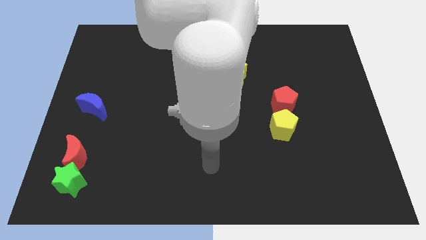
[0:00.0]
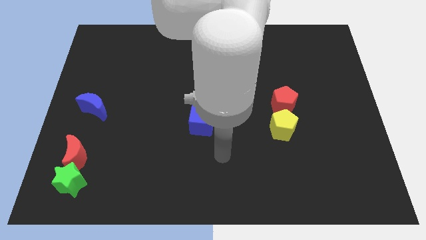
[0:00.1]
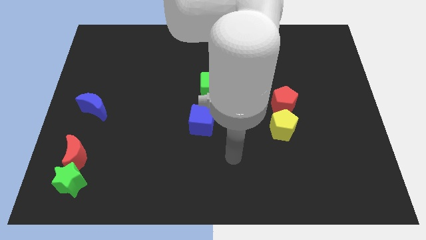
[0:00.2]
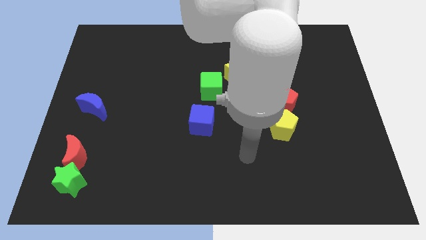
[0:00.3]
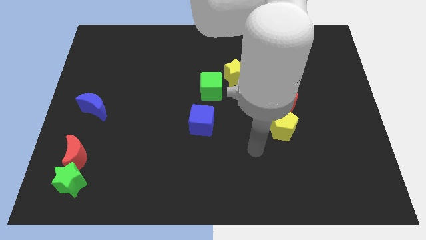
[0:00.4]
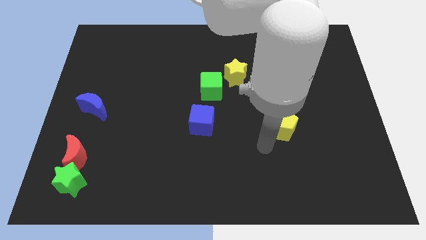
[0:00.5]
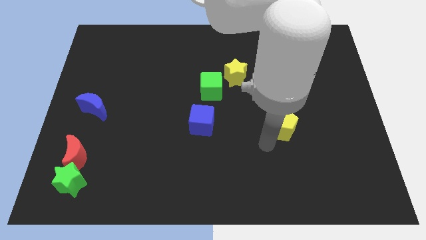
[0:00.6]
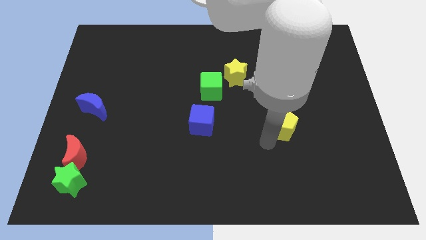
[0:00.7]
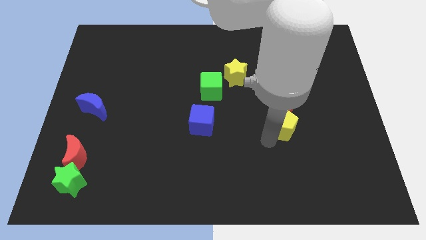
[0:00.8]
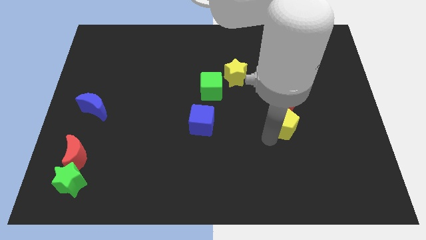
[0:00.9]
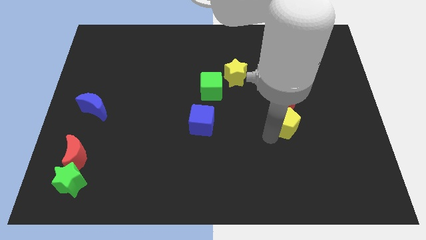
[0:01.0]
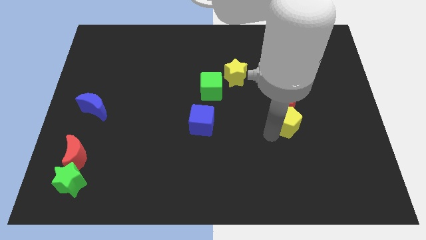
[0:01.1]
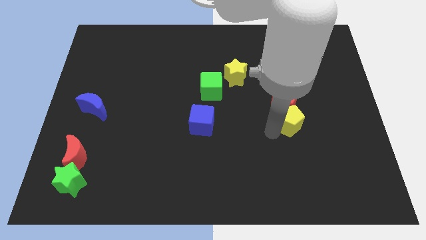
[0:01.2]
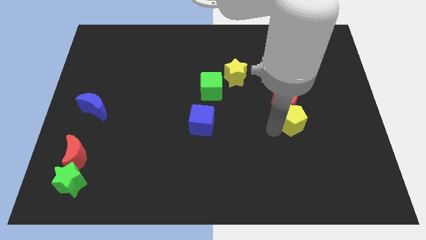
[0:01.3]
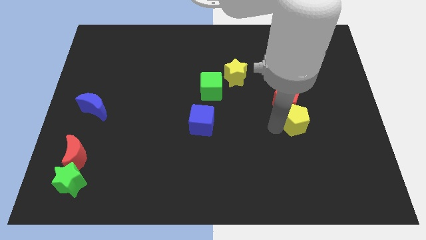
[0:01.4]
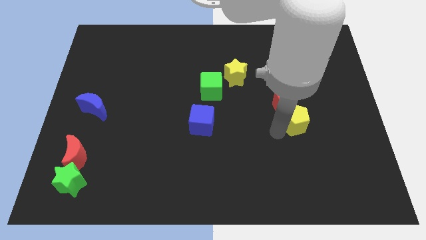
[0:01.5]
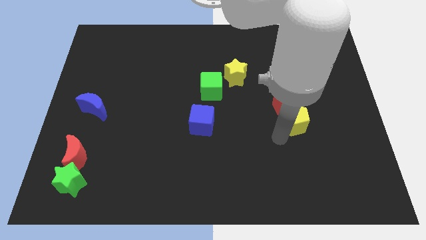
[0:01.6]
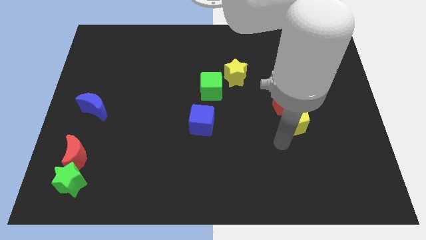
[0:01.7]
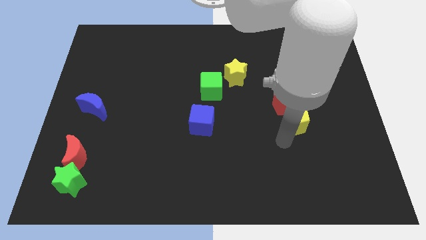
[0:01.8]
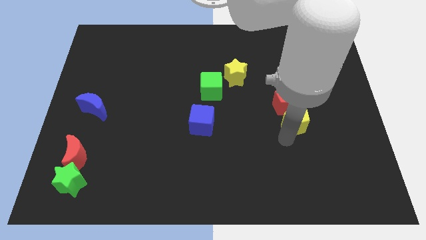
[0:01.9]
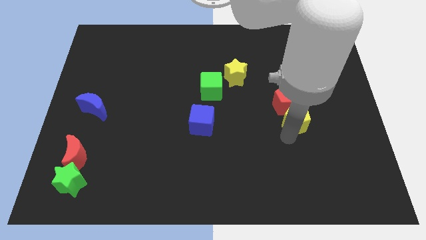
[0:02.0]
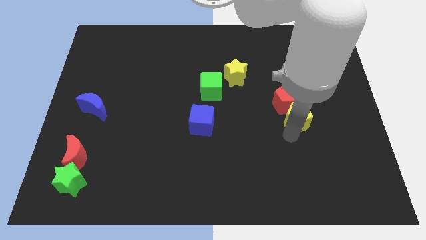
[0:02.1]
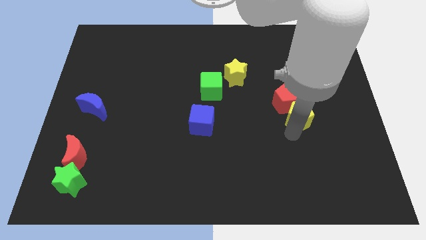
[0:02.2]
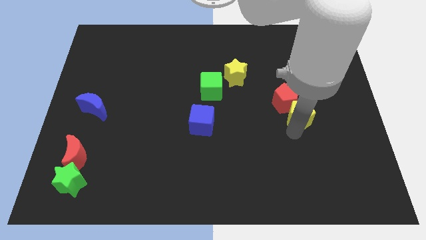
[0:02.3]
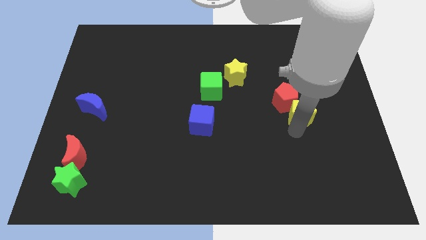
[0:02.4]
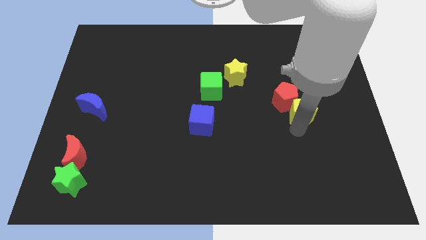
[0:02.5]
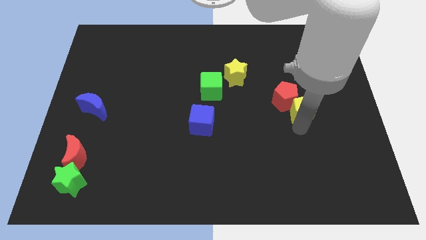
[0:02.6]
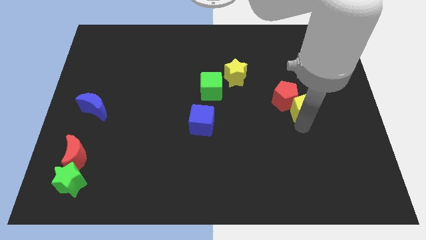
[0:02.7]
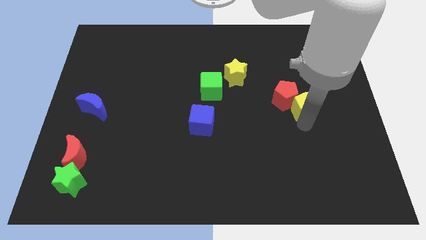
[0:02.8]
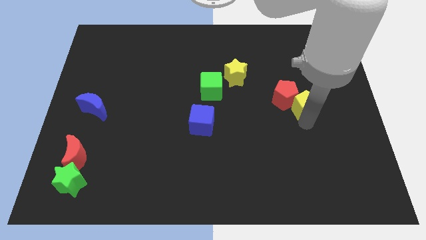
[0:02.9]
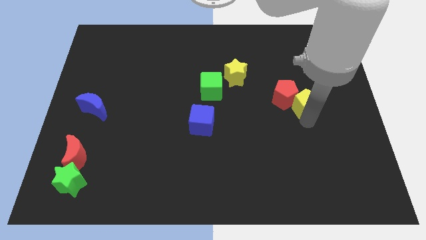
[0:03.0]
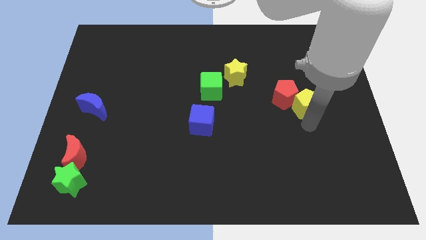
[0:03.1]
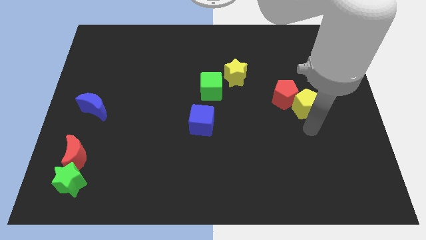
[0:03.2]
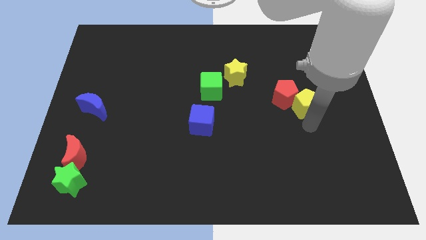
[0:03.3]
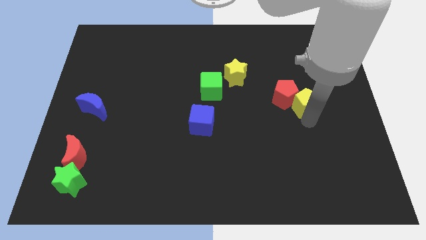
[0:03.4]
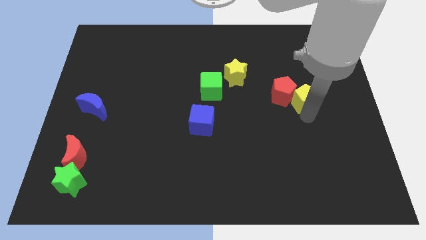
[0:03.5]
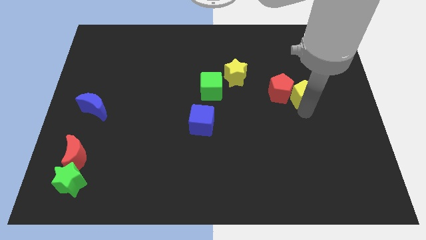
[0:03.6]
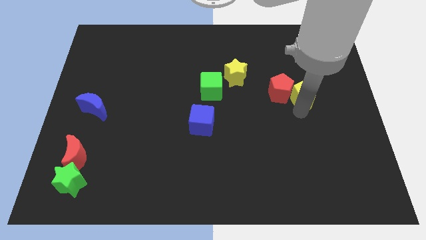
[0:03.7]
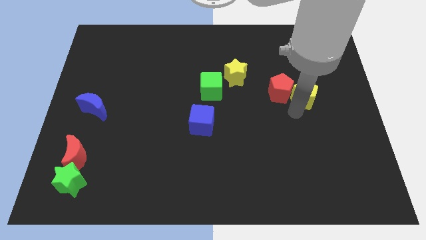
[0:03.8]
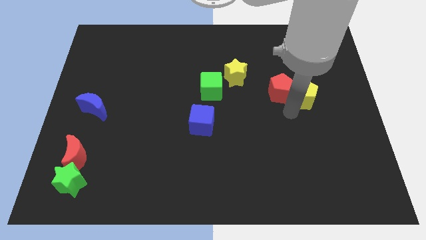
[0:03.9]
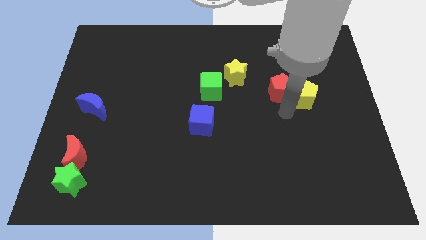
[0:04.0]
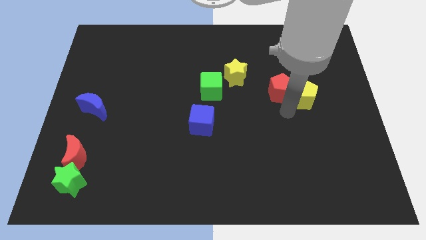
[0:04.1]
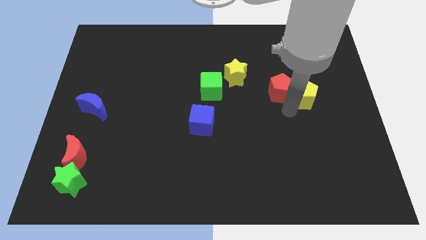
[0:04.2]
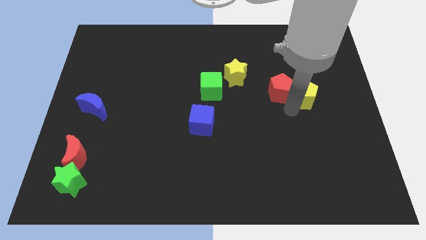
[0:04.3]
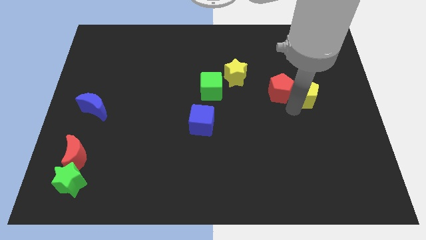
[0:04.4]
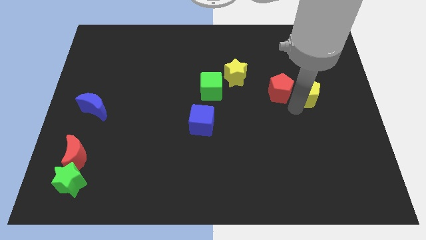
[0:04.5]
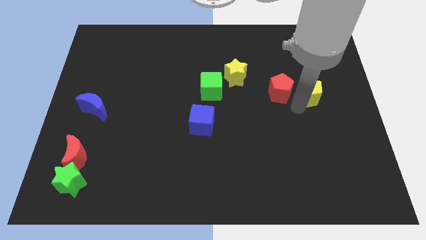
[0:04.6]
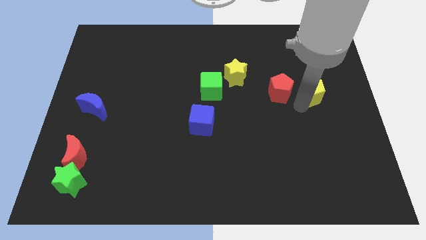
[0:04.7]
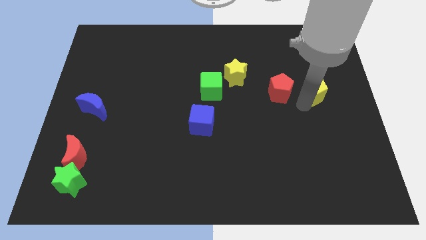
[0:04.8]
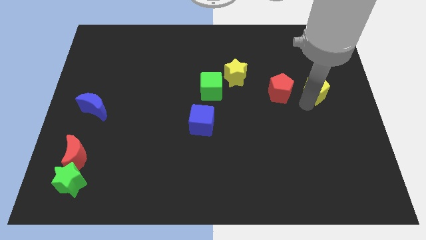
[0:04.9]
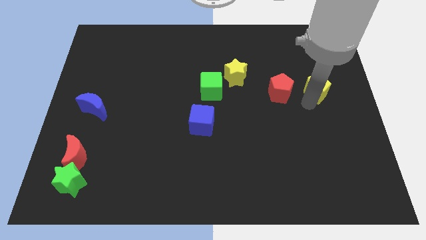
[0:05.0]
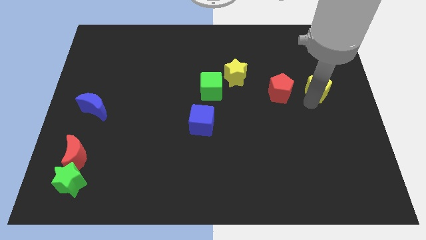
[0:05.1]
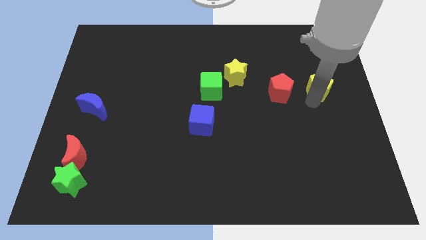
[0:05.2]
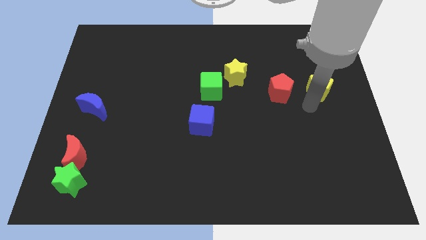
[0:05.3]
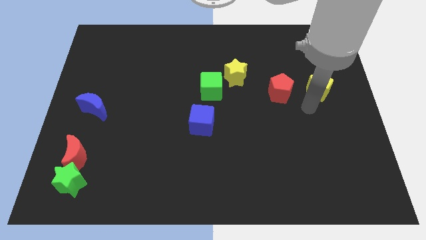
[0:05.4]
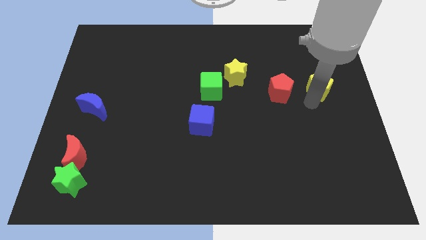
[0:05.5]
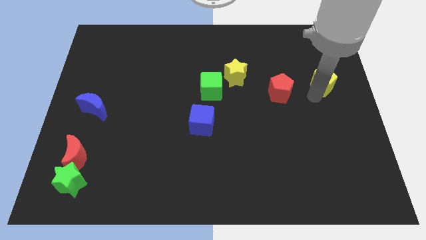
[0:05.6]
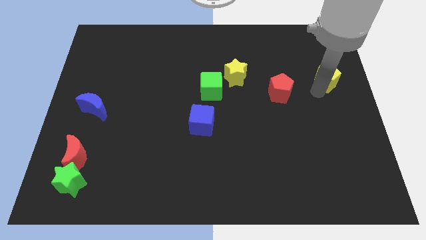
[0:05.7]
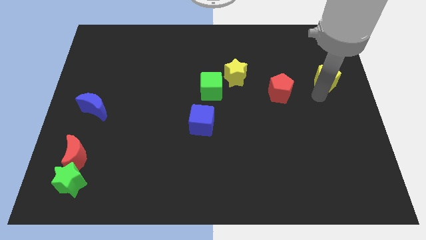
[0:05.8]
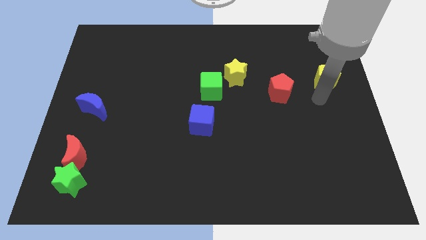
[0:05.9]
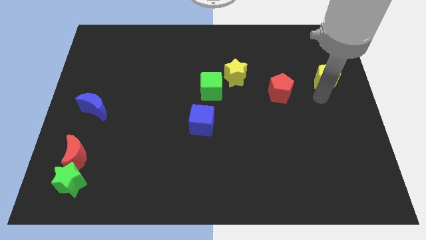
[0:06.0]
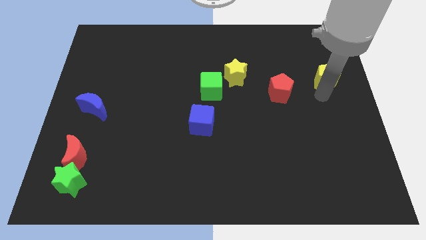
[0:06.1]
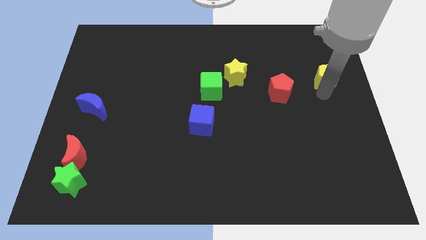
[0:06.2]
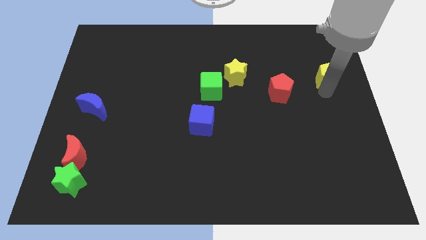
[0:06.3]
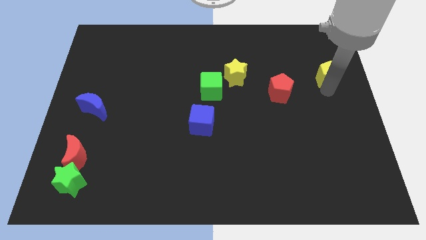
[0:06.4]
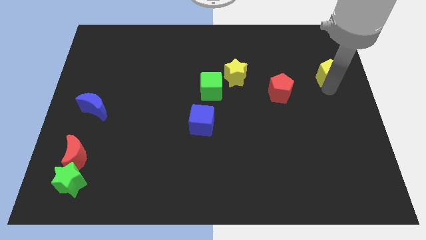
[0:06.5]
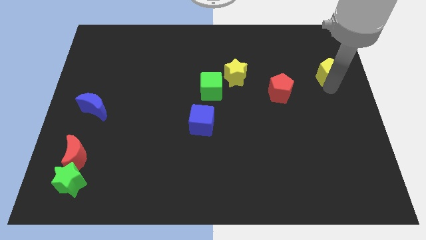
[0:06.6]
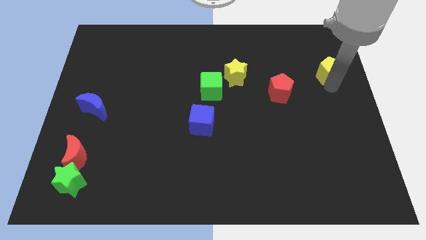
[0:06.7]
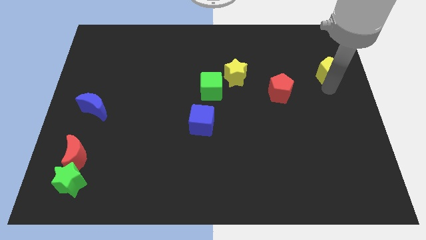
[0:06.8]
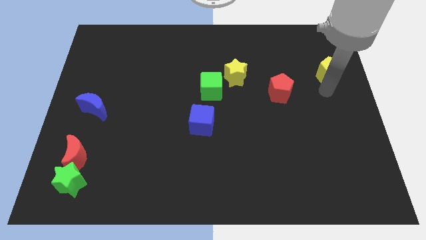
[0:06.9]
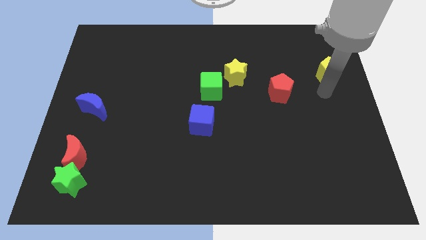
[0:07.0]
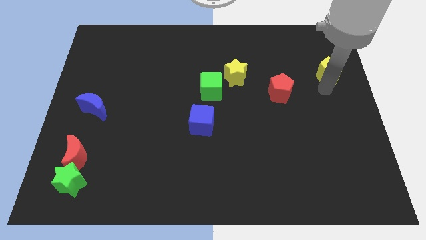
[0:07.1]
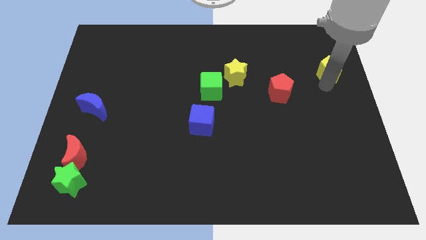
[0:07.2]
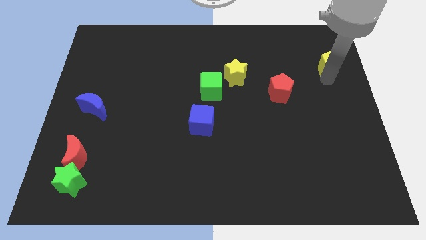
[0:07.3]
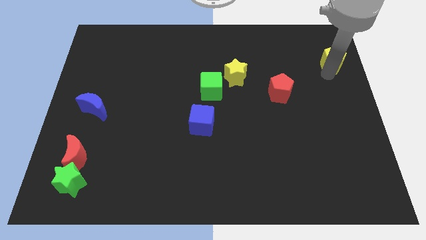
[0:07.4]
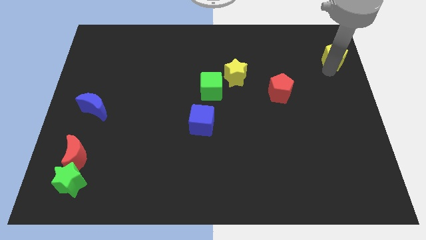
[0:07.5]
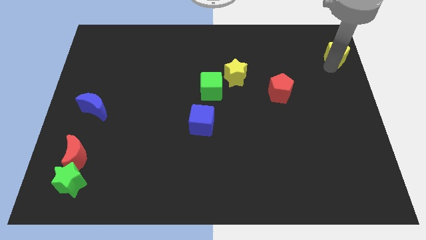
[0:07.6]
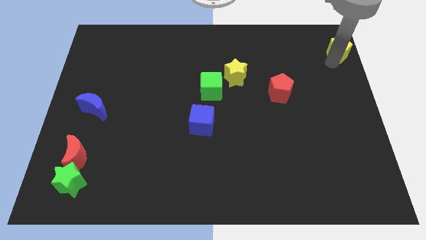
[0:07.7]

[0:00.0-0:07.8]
put the yellow pentagon to the top right
